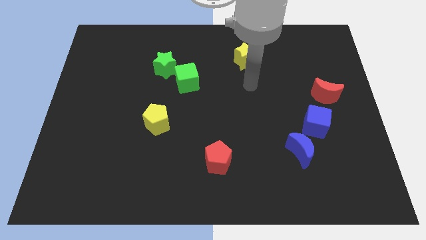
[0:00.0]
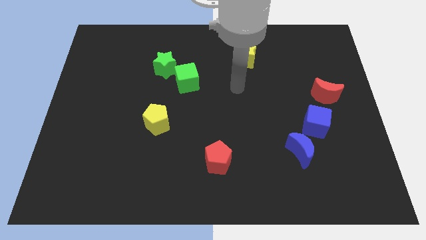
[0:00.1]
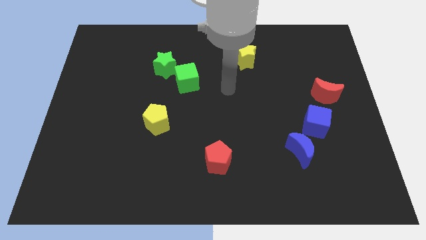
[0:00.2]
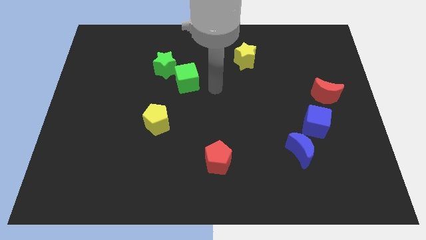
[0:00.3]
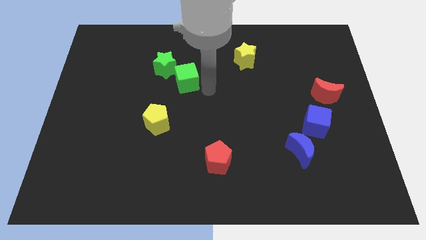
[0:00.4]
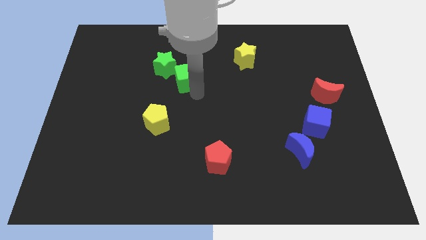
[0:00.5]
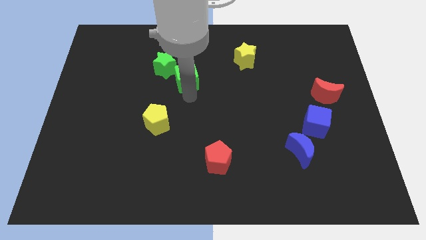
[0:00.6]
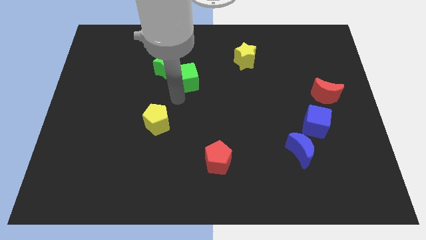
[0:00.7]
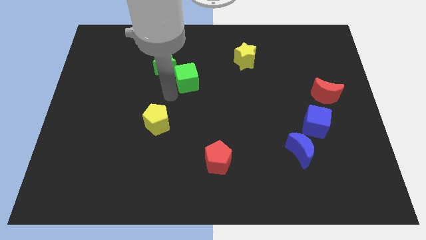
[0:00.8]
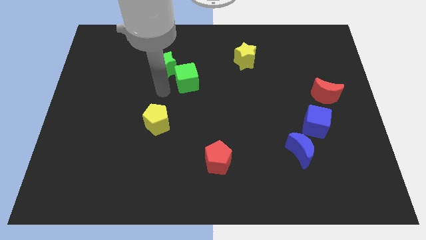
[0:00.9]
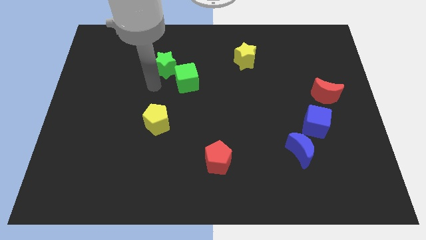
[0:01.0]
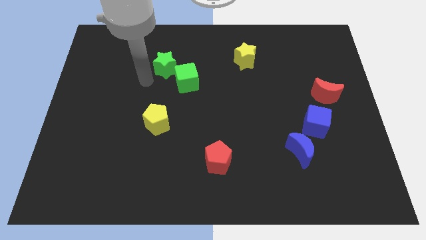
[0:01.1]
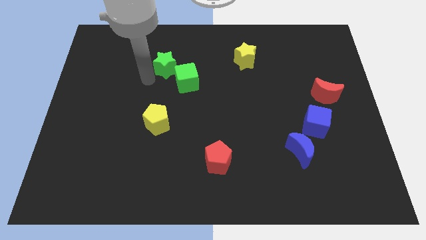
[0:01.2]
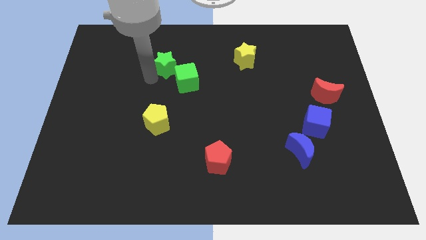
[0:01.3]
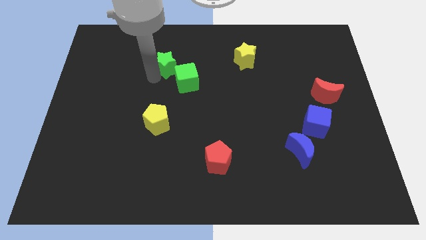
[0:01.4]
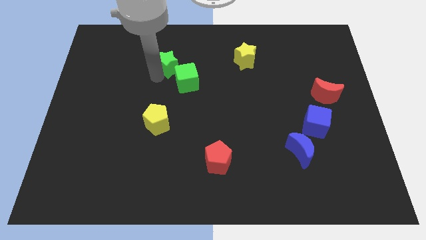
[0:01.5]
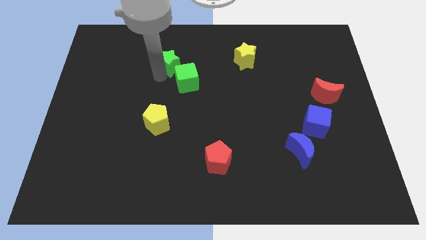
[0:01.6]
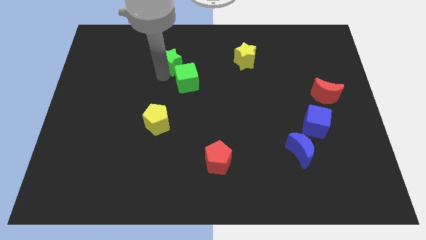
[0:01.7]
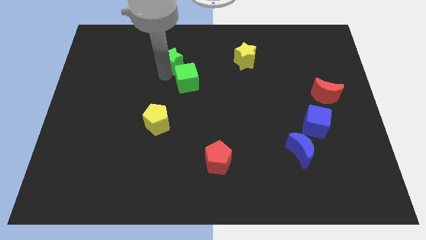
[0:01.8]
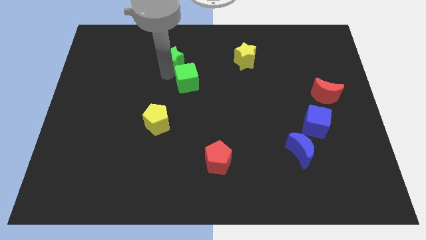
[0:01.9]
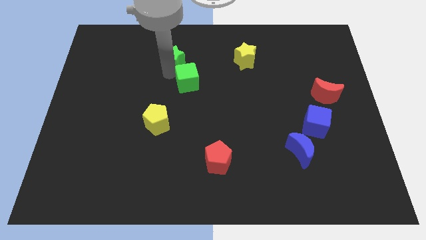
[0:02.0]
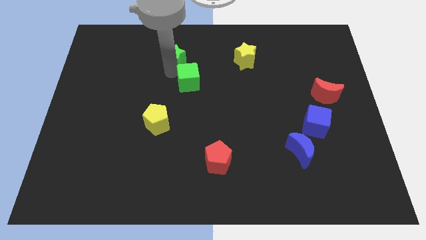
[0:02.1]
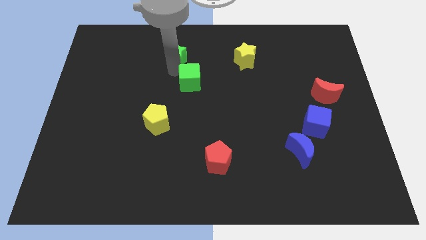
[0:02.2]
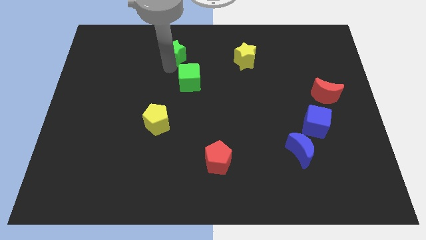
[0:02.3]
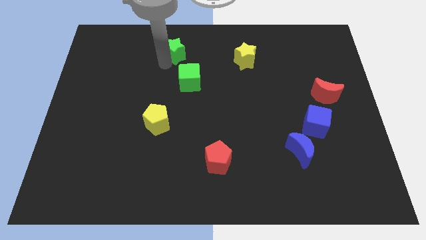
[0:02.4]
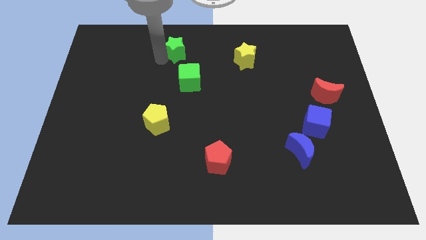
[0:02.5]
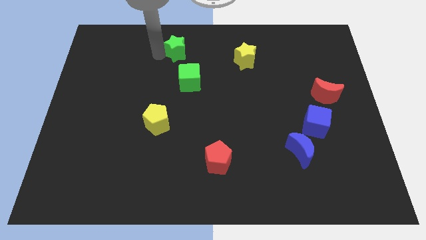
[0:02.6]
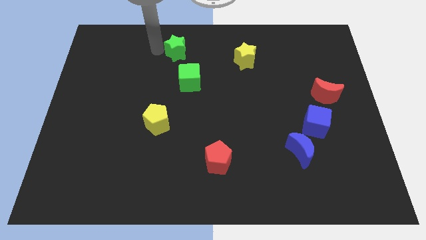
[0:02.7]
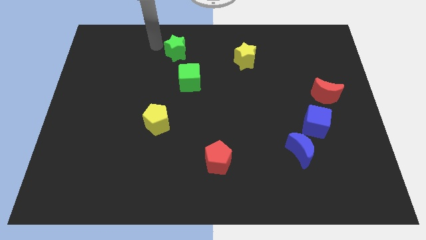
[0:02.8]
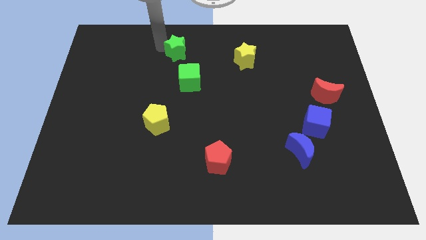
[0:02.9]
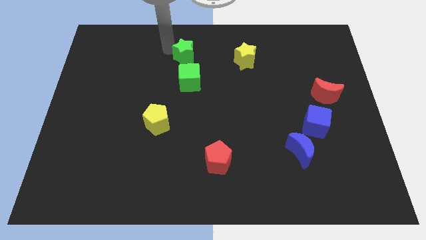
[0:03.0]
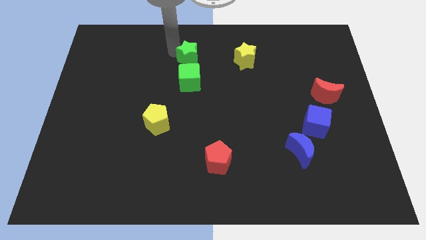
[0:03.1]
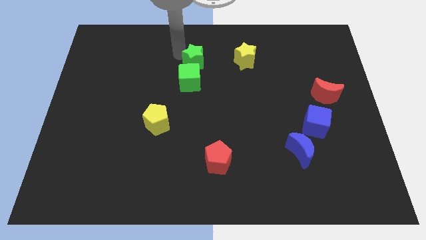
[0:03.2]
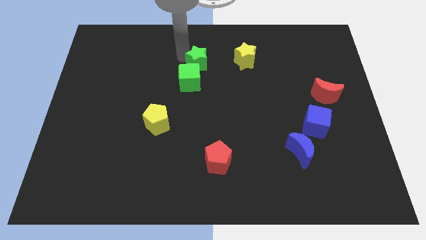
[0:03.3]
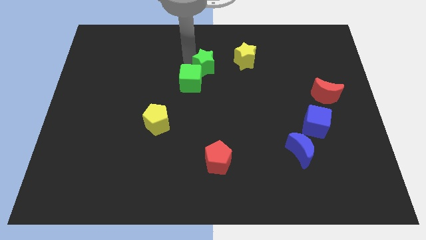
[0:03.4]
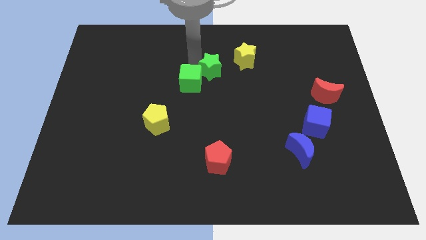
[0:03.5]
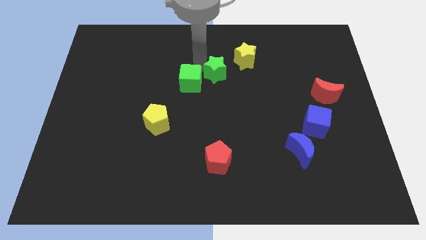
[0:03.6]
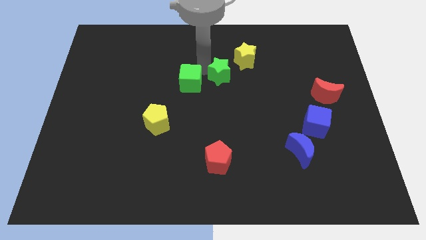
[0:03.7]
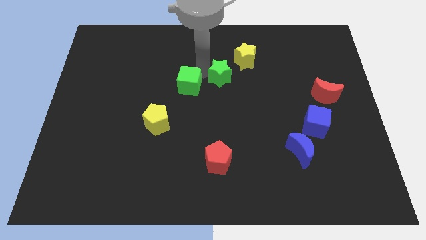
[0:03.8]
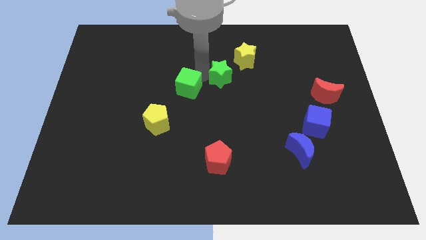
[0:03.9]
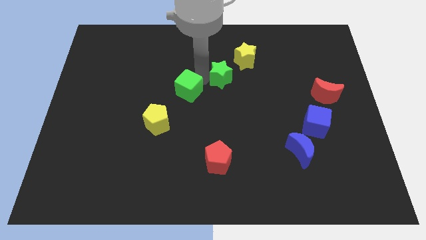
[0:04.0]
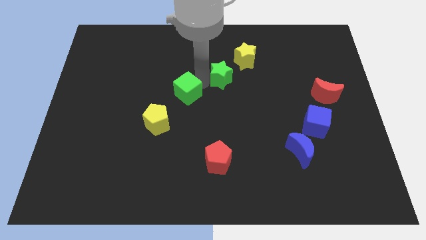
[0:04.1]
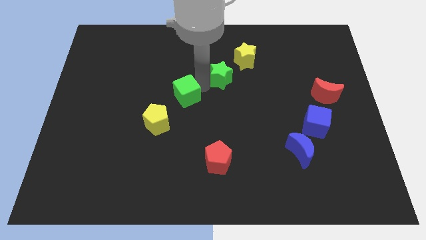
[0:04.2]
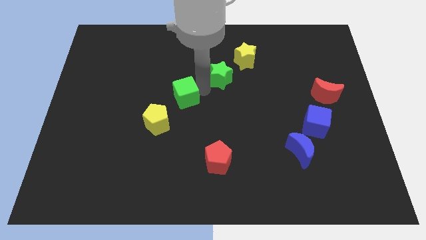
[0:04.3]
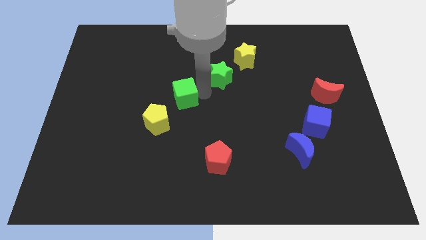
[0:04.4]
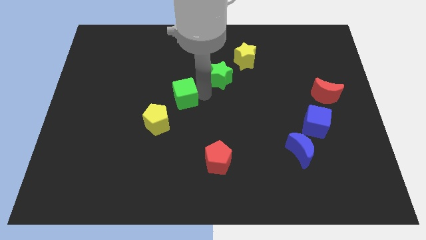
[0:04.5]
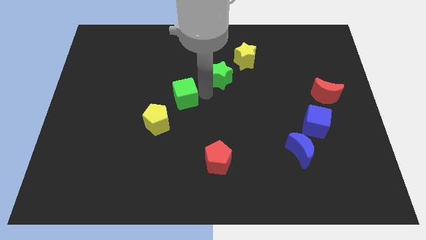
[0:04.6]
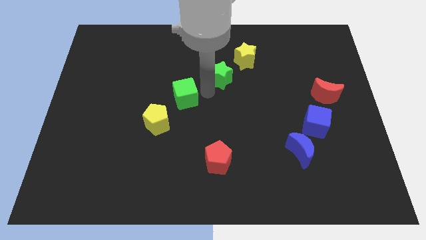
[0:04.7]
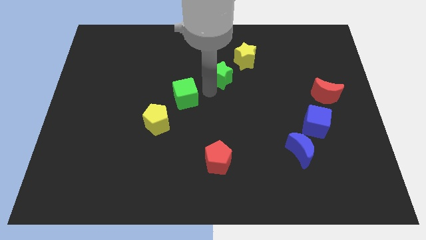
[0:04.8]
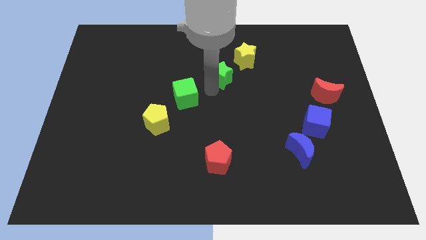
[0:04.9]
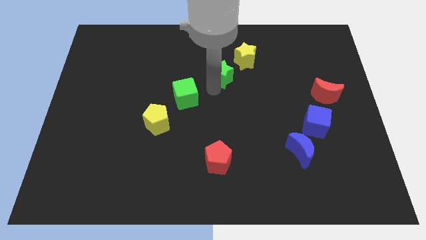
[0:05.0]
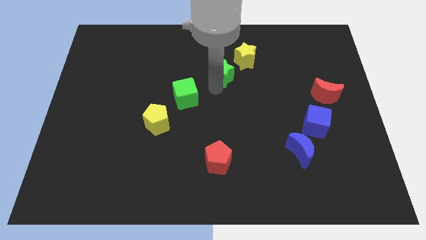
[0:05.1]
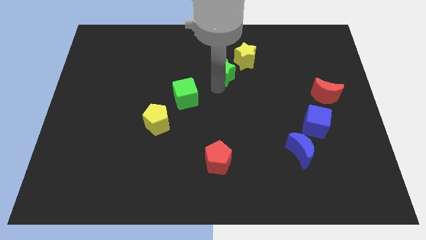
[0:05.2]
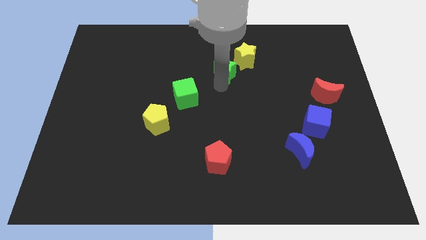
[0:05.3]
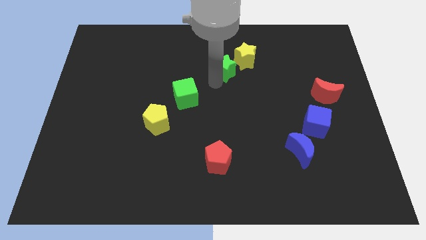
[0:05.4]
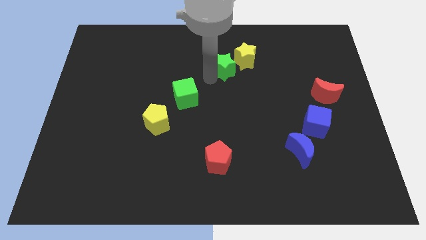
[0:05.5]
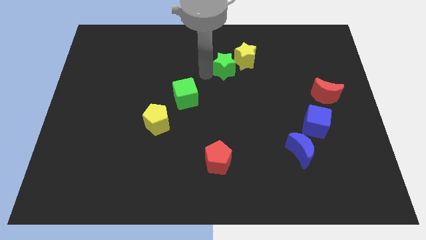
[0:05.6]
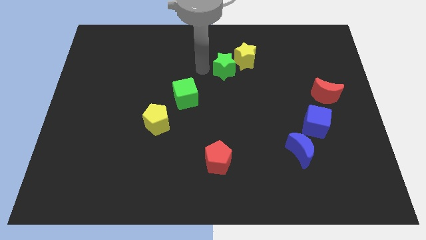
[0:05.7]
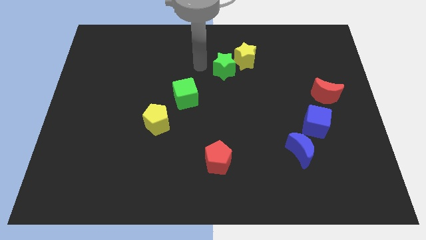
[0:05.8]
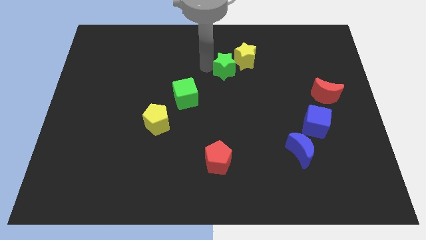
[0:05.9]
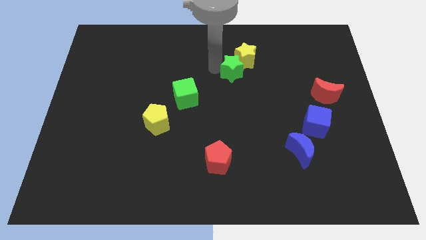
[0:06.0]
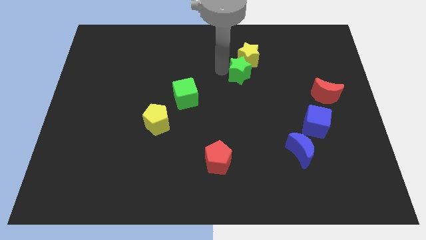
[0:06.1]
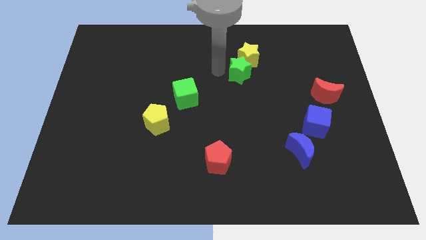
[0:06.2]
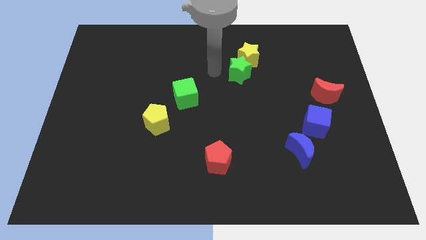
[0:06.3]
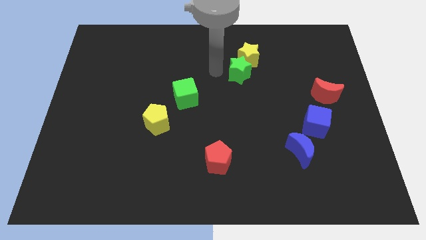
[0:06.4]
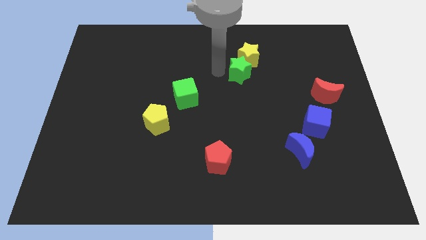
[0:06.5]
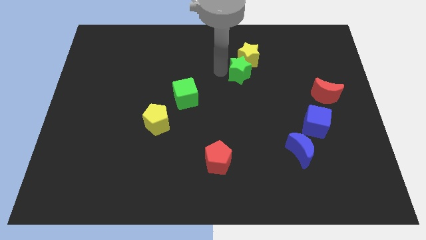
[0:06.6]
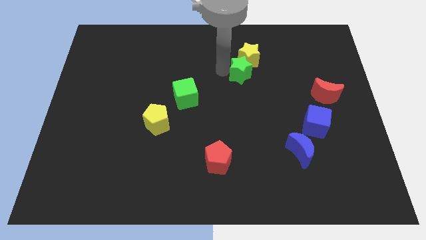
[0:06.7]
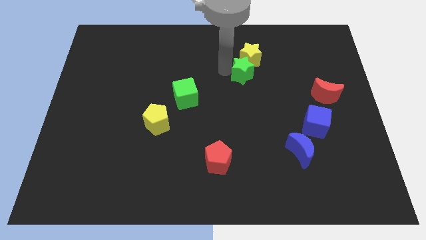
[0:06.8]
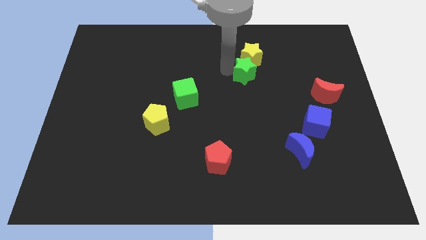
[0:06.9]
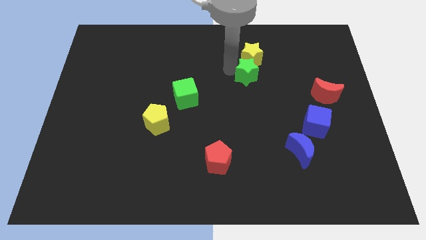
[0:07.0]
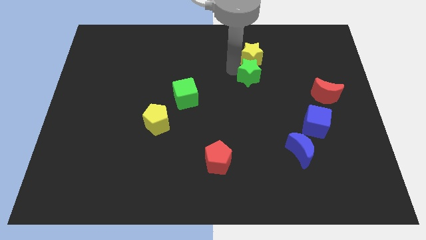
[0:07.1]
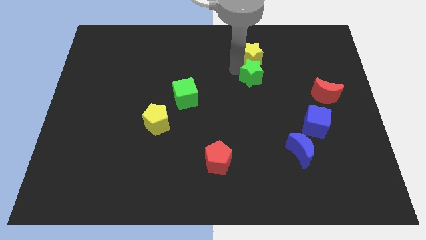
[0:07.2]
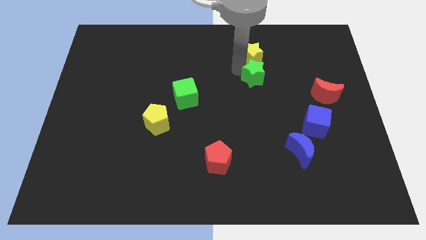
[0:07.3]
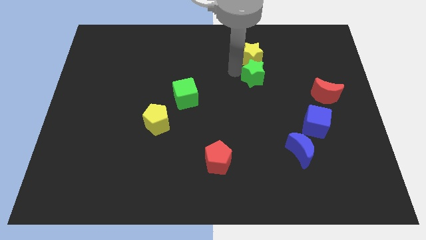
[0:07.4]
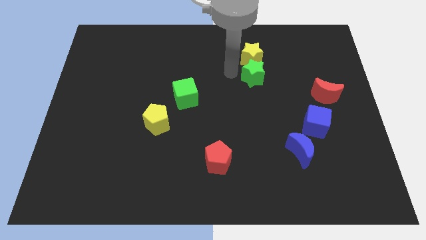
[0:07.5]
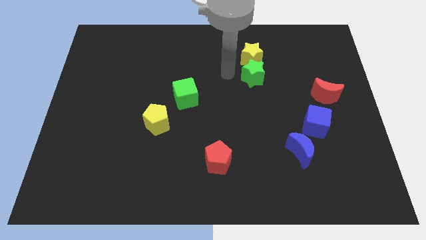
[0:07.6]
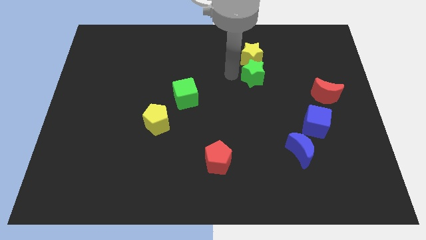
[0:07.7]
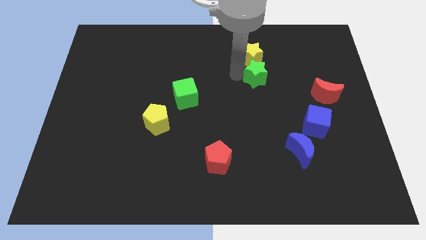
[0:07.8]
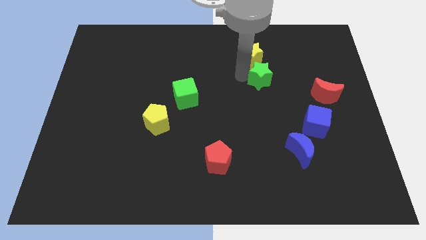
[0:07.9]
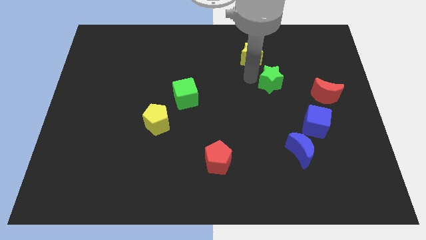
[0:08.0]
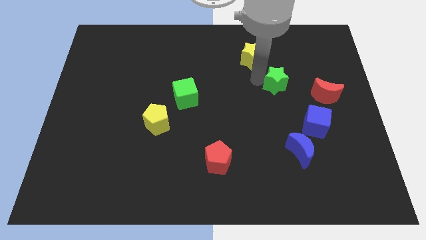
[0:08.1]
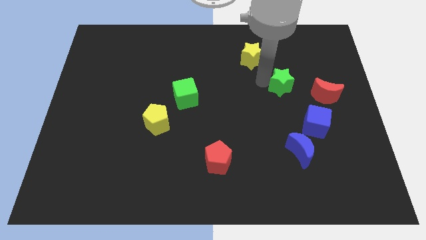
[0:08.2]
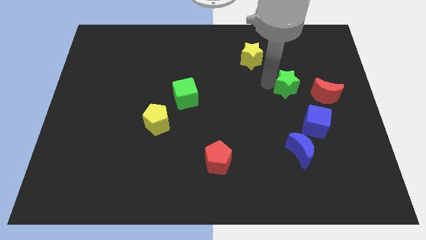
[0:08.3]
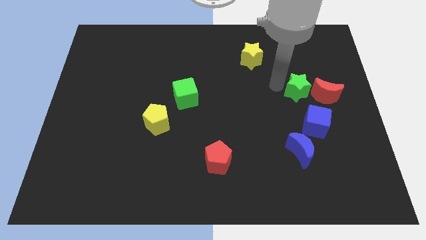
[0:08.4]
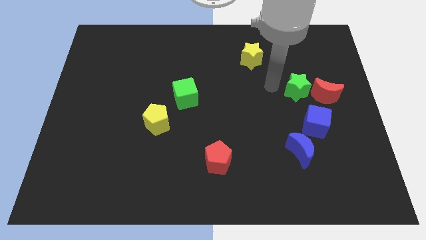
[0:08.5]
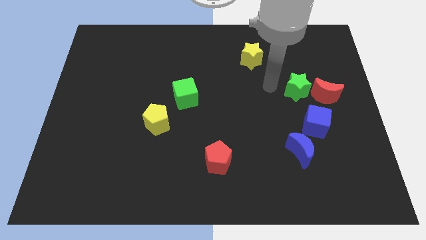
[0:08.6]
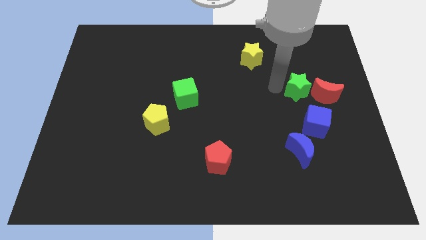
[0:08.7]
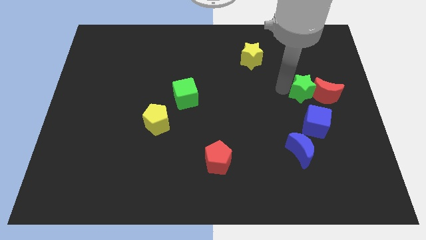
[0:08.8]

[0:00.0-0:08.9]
put the green star close to the red moon
